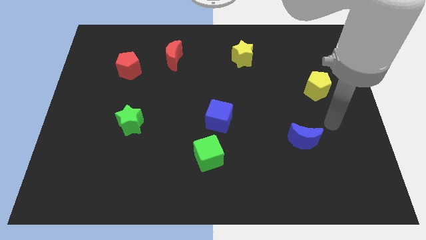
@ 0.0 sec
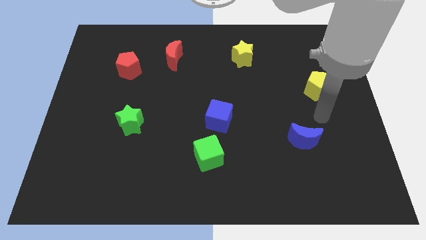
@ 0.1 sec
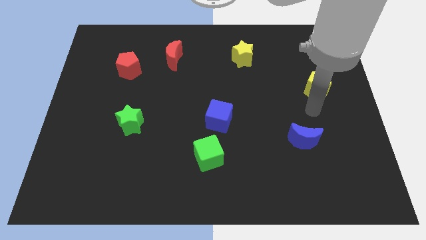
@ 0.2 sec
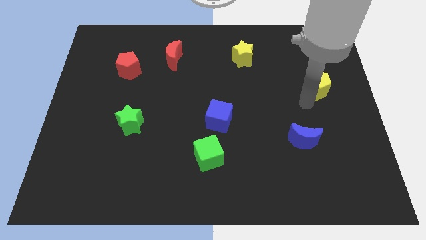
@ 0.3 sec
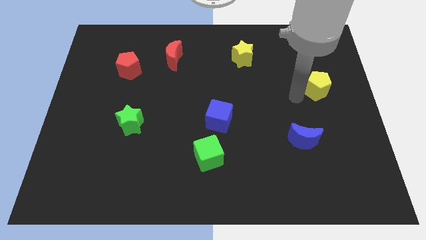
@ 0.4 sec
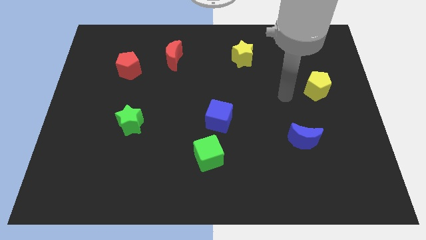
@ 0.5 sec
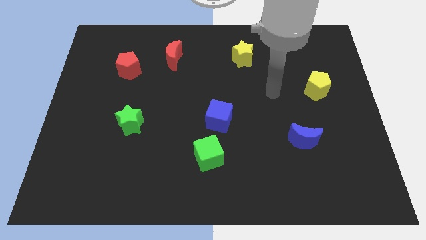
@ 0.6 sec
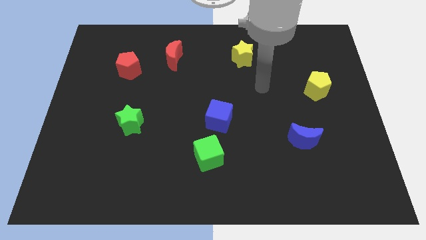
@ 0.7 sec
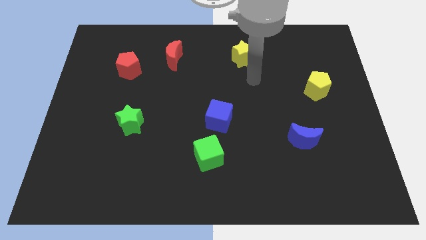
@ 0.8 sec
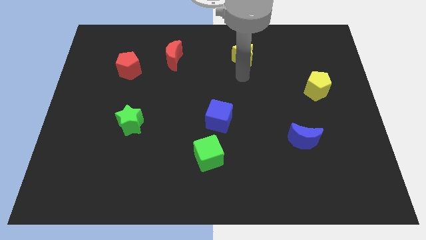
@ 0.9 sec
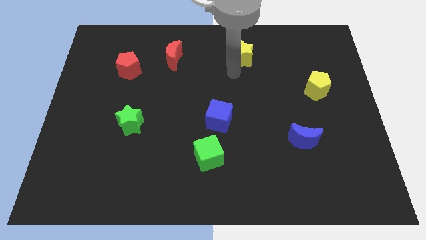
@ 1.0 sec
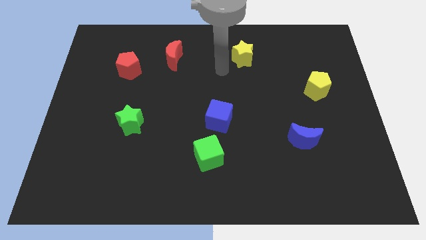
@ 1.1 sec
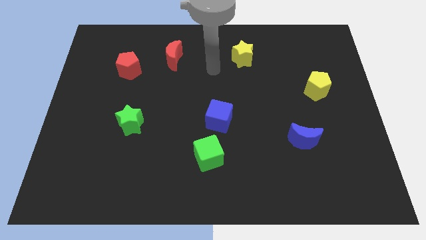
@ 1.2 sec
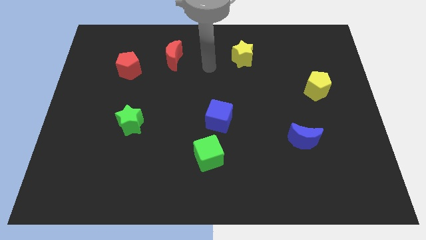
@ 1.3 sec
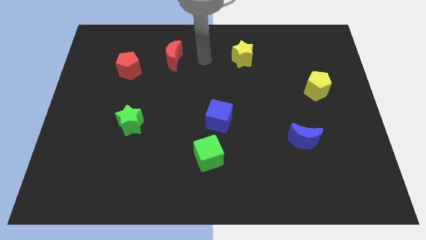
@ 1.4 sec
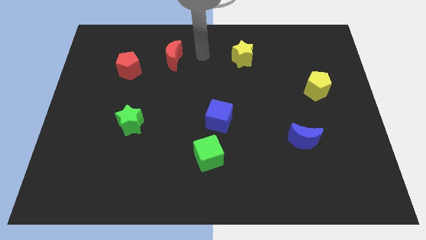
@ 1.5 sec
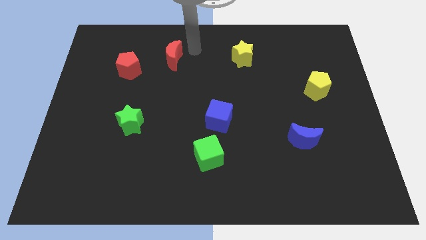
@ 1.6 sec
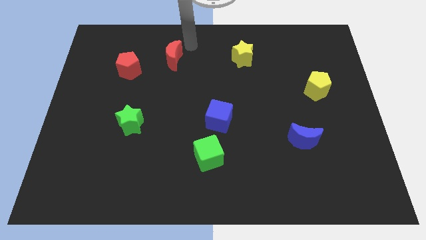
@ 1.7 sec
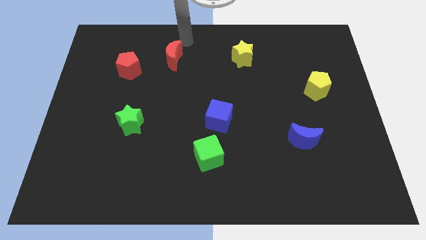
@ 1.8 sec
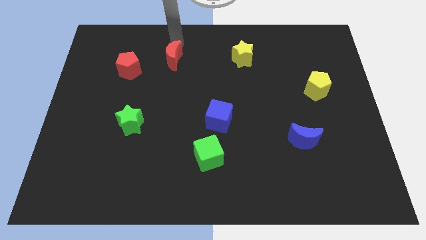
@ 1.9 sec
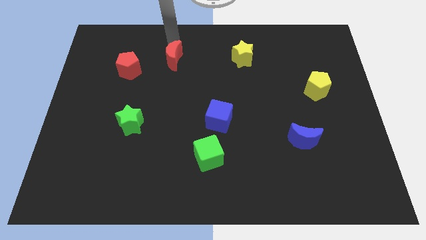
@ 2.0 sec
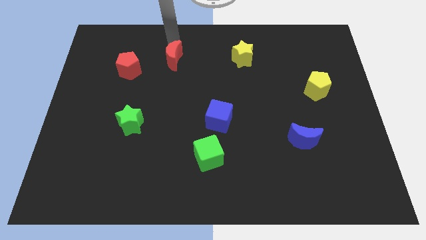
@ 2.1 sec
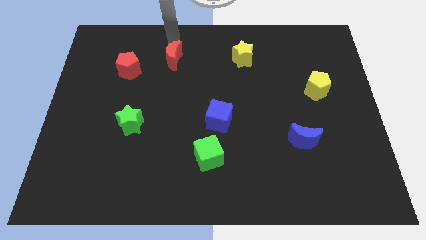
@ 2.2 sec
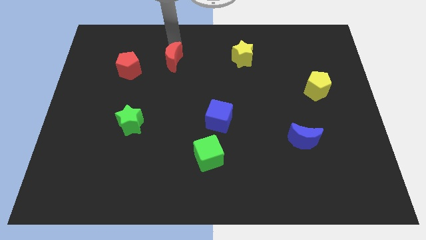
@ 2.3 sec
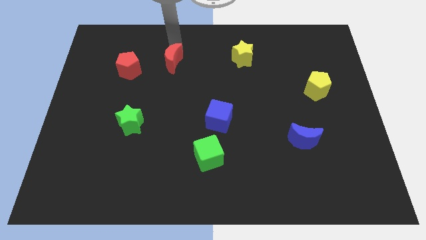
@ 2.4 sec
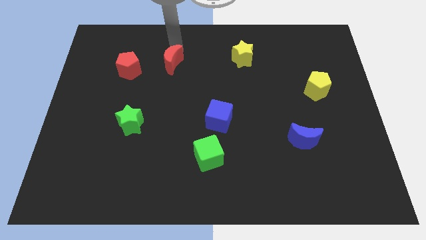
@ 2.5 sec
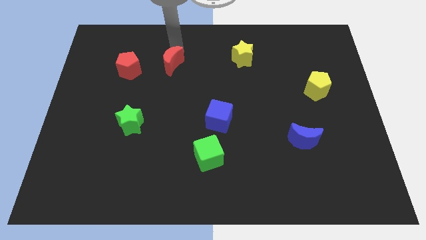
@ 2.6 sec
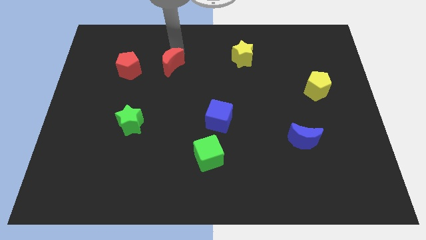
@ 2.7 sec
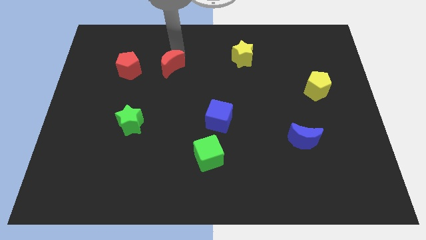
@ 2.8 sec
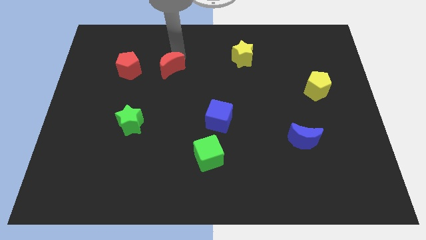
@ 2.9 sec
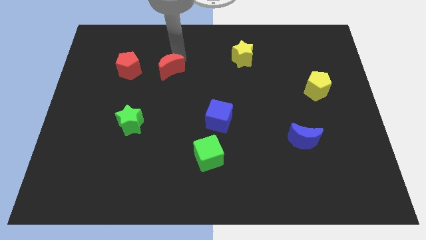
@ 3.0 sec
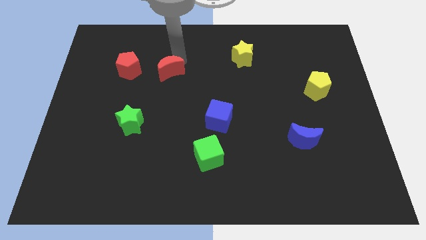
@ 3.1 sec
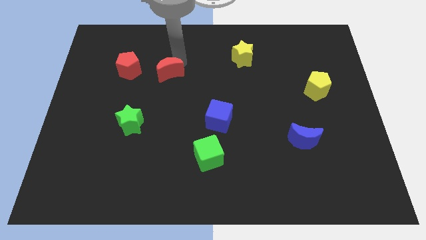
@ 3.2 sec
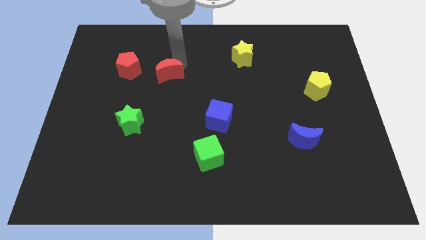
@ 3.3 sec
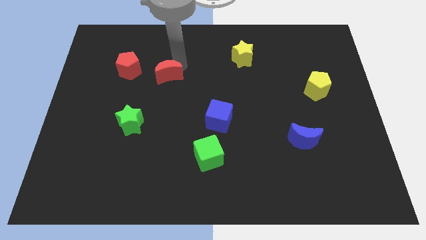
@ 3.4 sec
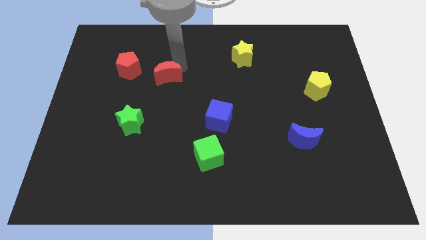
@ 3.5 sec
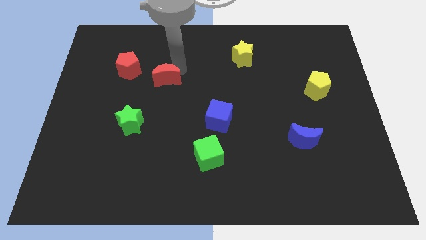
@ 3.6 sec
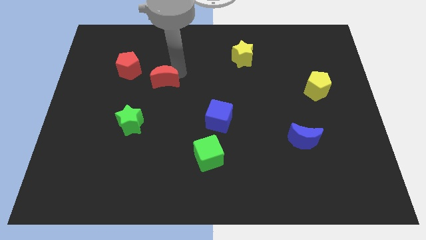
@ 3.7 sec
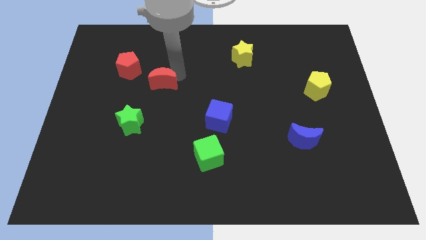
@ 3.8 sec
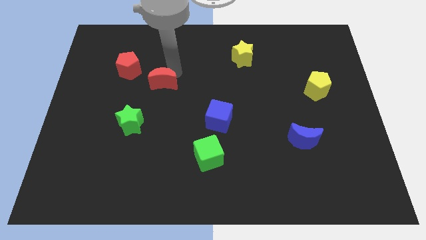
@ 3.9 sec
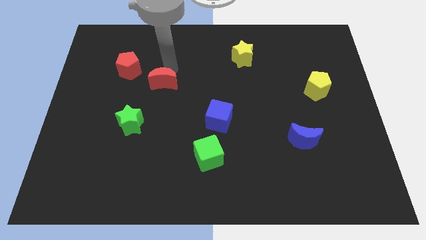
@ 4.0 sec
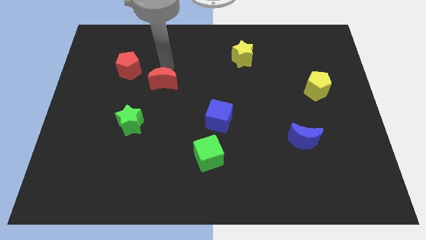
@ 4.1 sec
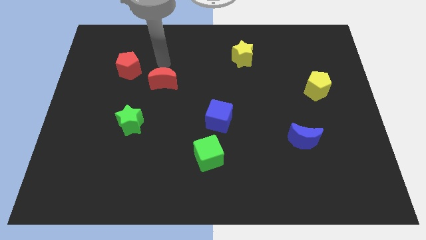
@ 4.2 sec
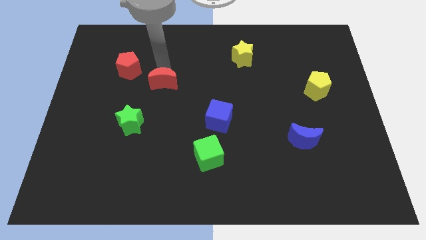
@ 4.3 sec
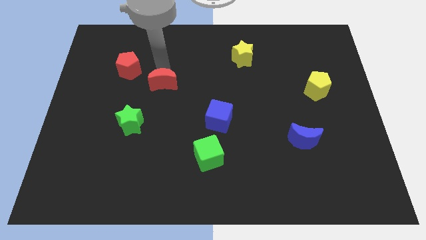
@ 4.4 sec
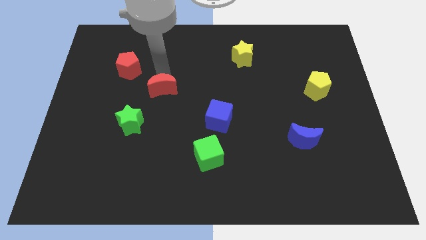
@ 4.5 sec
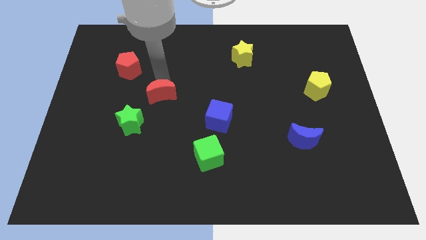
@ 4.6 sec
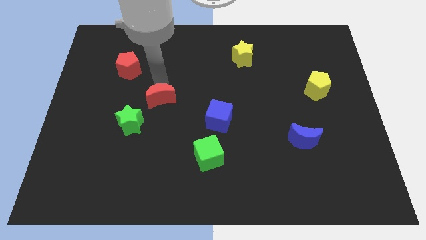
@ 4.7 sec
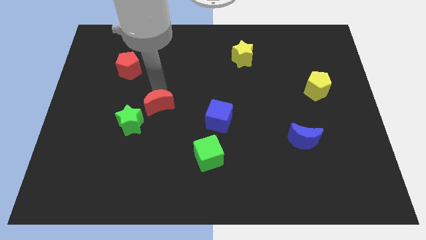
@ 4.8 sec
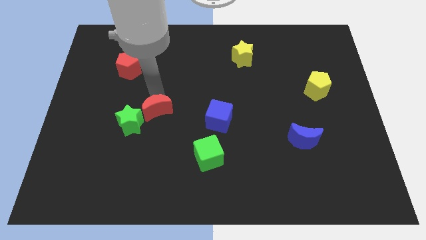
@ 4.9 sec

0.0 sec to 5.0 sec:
push the red moon left of the blue cube

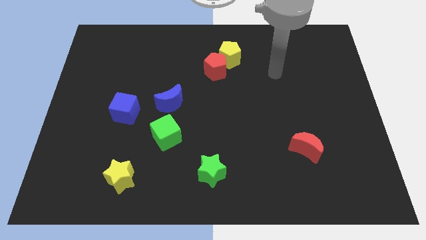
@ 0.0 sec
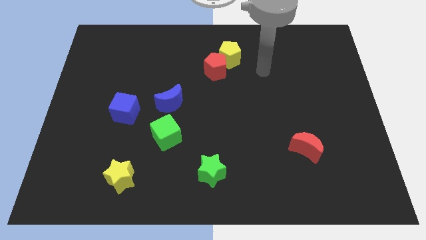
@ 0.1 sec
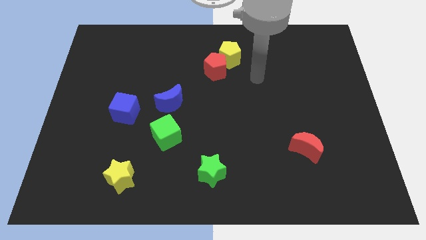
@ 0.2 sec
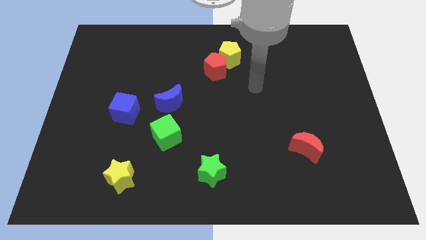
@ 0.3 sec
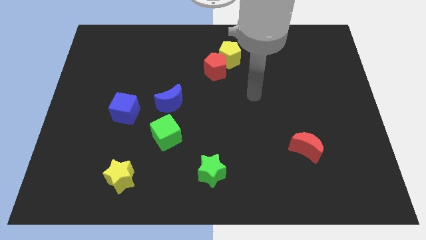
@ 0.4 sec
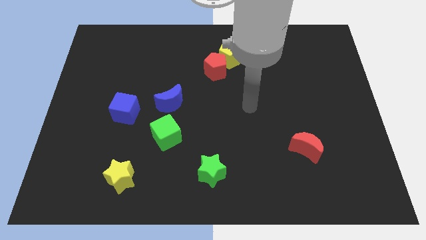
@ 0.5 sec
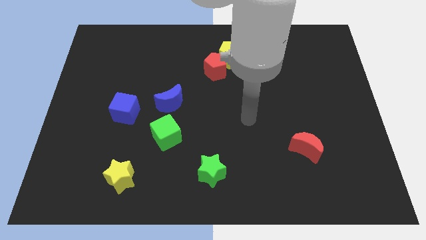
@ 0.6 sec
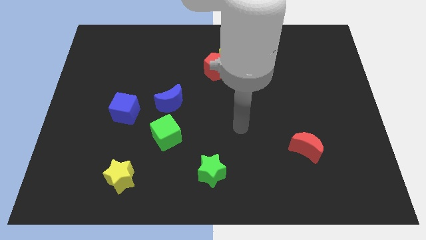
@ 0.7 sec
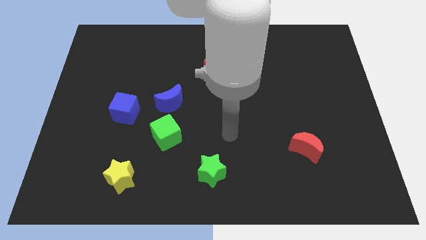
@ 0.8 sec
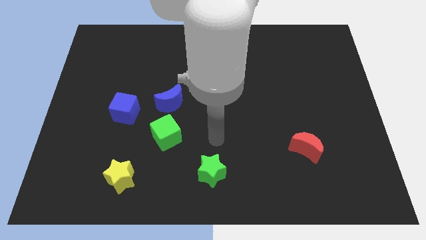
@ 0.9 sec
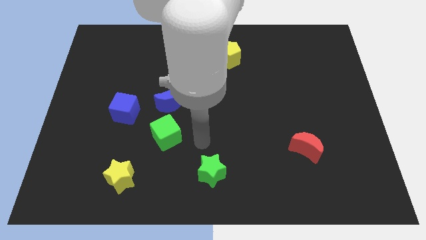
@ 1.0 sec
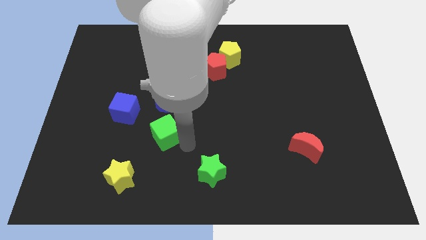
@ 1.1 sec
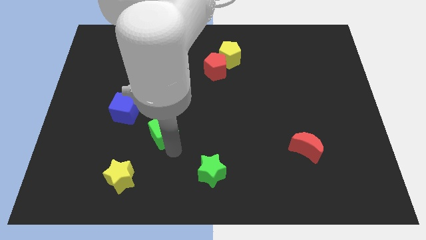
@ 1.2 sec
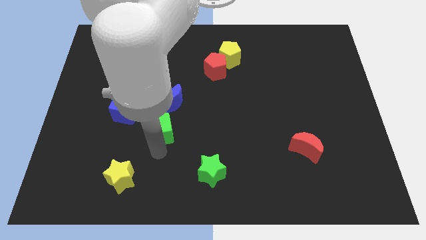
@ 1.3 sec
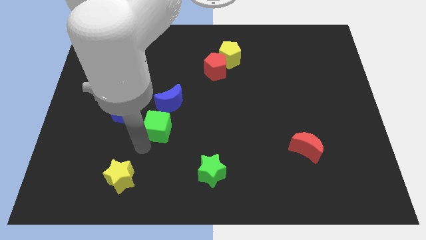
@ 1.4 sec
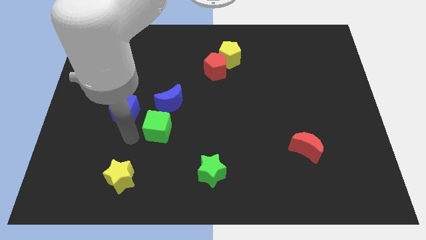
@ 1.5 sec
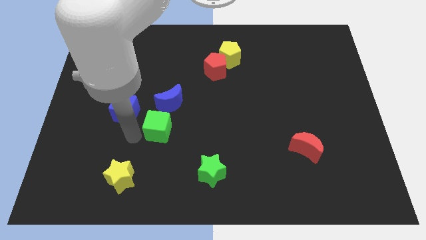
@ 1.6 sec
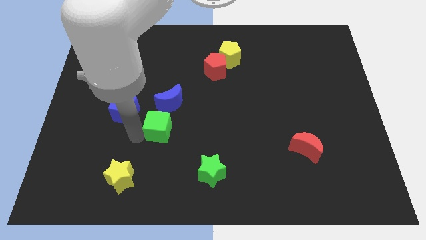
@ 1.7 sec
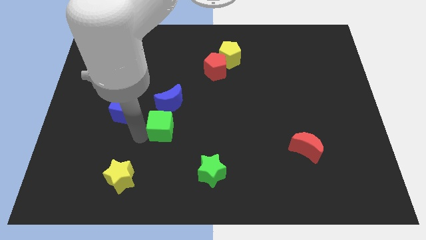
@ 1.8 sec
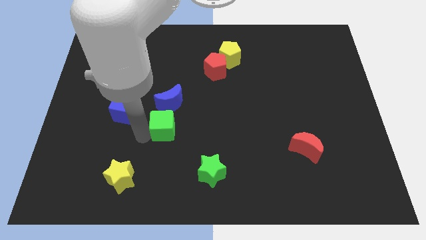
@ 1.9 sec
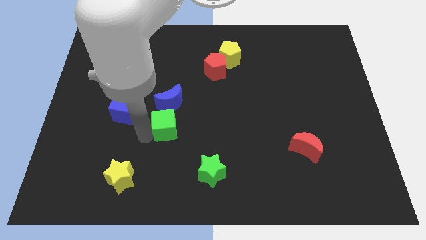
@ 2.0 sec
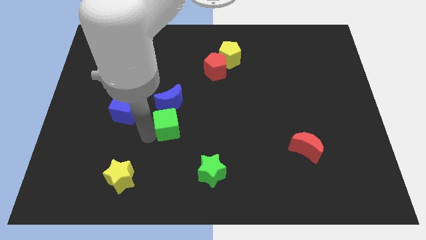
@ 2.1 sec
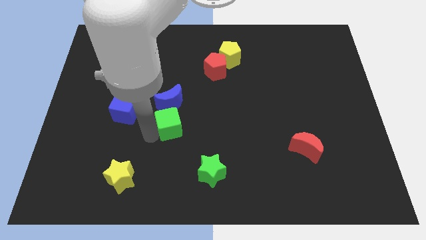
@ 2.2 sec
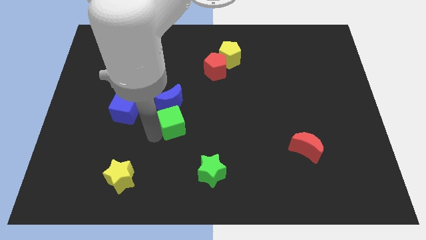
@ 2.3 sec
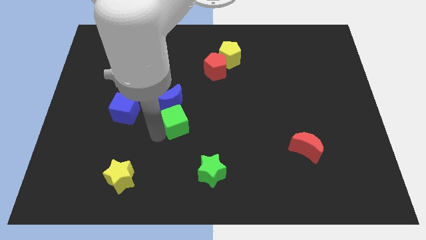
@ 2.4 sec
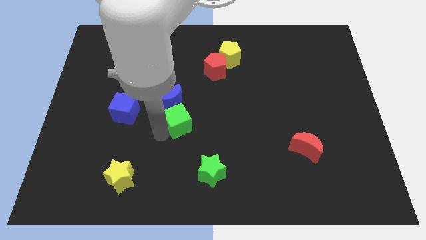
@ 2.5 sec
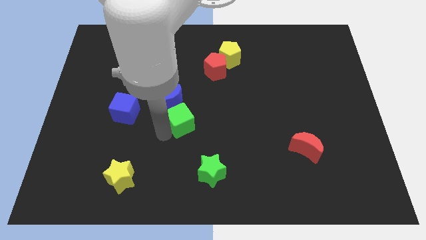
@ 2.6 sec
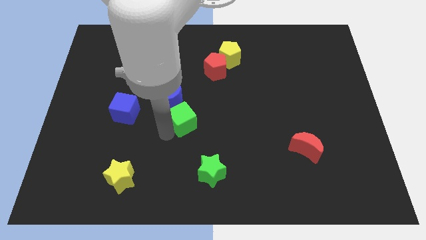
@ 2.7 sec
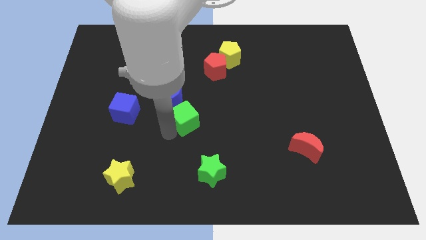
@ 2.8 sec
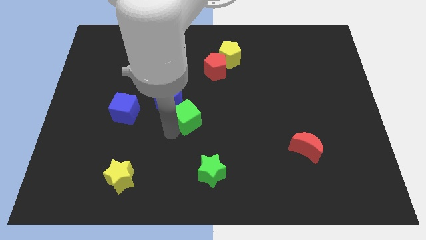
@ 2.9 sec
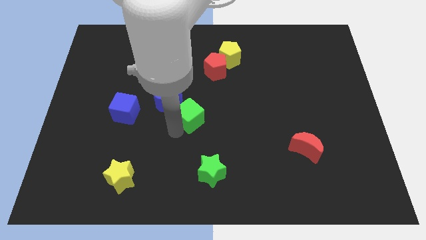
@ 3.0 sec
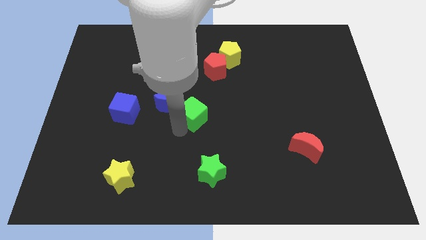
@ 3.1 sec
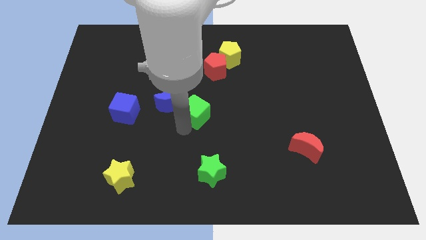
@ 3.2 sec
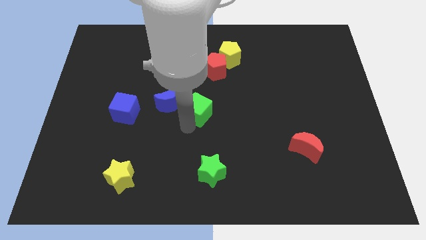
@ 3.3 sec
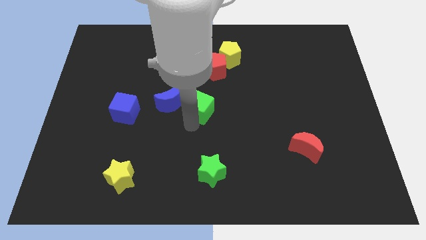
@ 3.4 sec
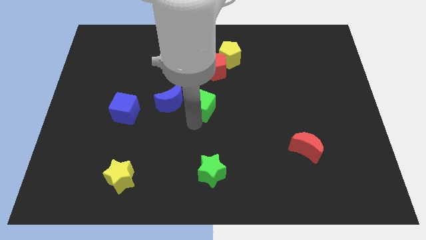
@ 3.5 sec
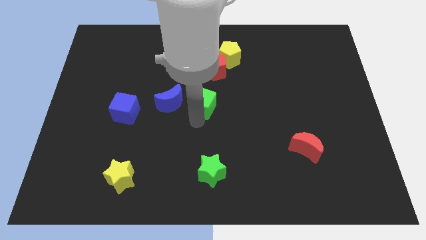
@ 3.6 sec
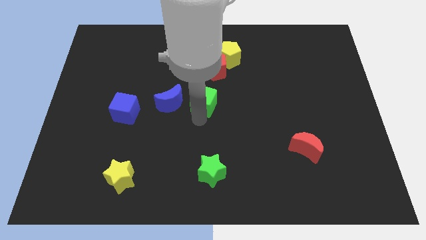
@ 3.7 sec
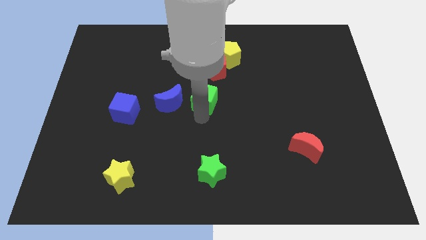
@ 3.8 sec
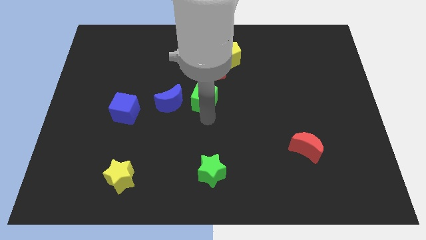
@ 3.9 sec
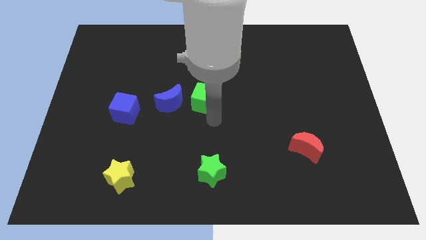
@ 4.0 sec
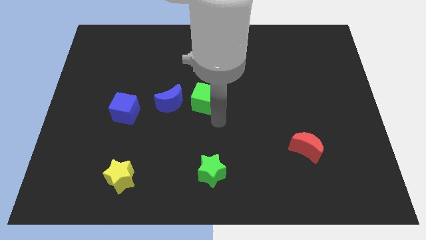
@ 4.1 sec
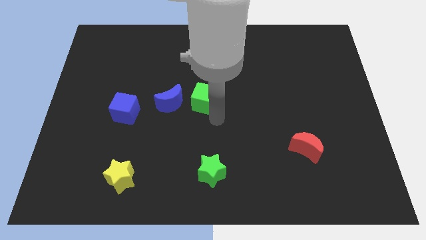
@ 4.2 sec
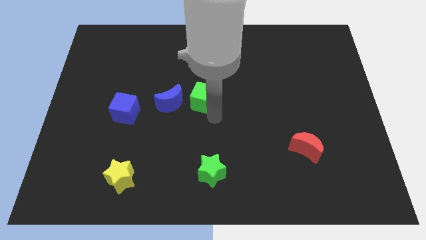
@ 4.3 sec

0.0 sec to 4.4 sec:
push the green cube to the top right of the blue moon
